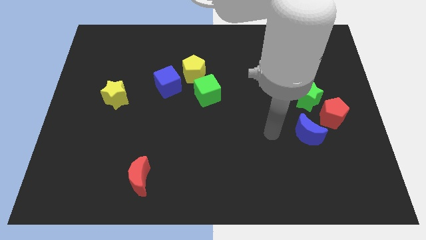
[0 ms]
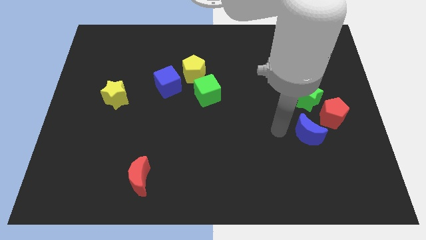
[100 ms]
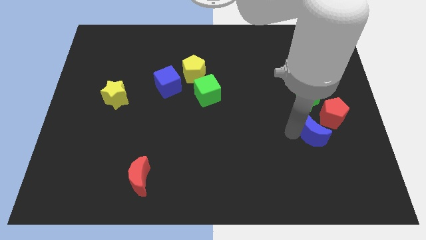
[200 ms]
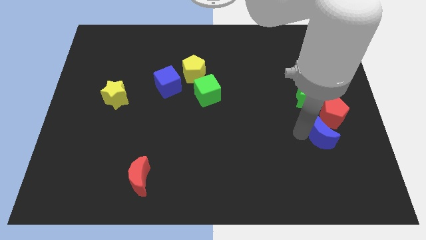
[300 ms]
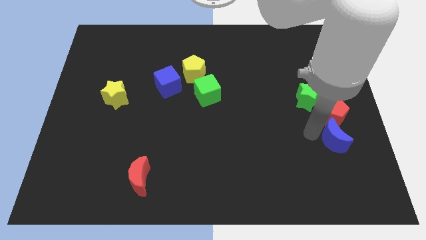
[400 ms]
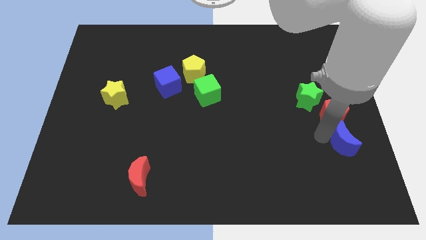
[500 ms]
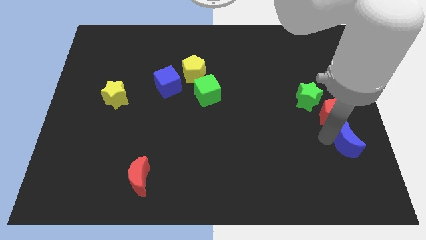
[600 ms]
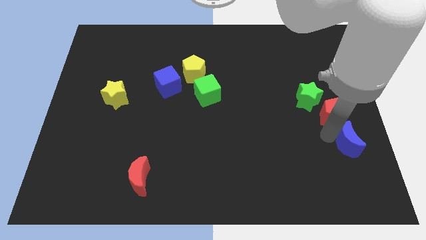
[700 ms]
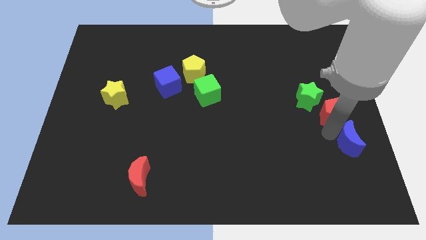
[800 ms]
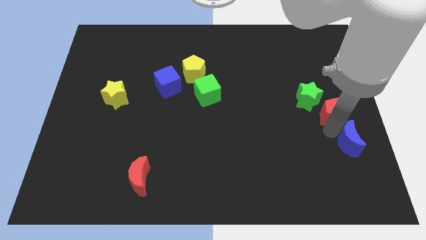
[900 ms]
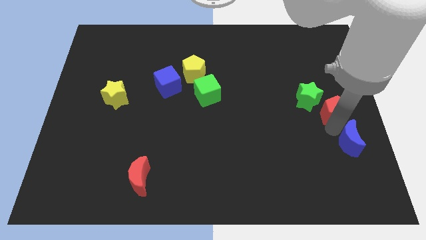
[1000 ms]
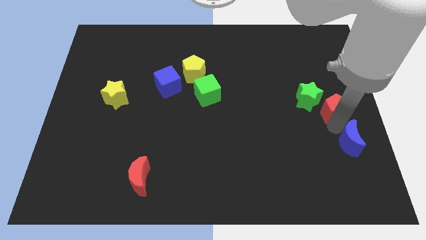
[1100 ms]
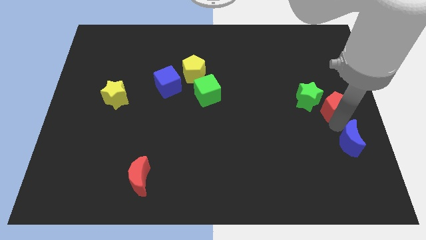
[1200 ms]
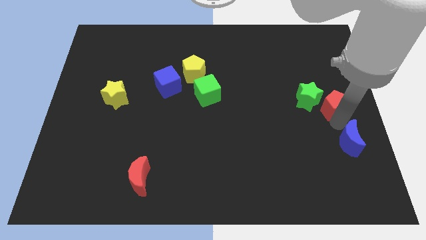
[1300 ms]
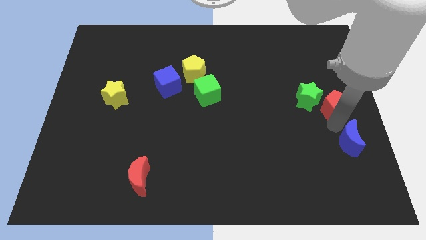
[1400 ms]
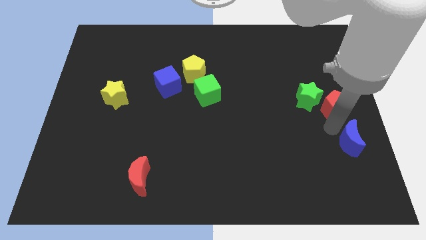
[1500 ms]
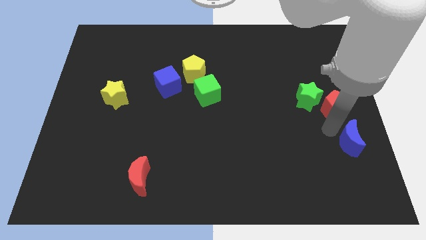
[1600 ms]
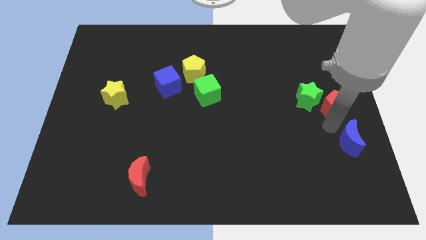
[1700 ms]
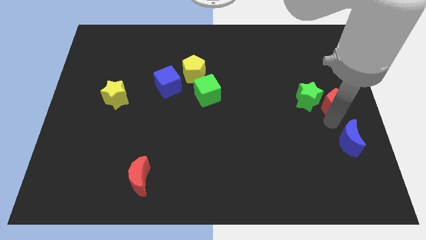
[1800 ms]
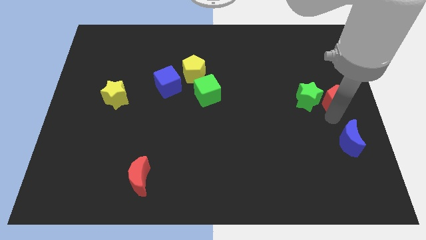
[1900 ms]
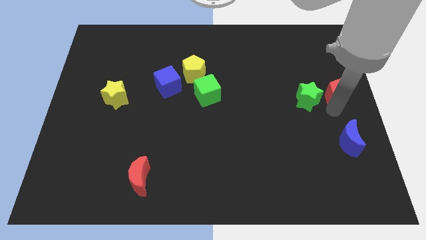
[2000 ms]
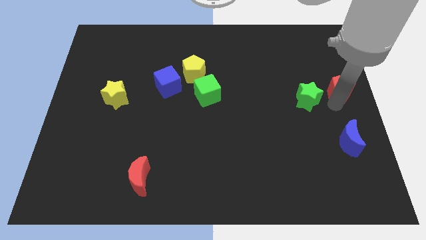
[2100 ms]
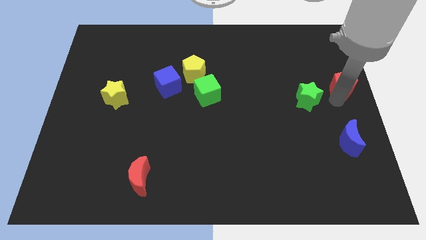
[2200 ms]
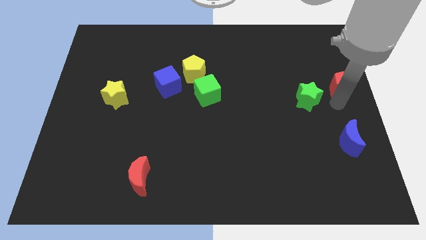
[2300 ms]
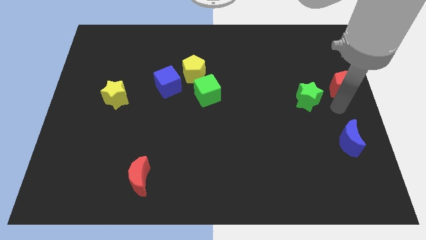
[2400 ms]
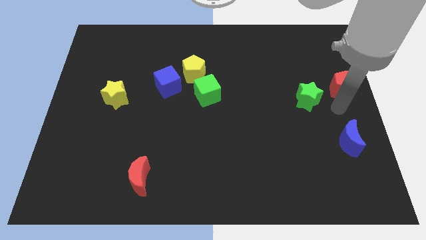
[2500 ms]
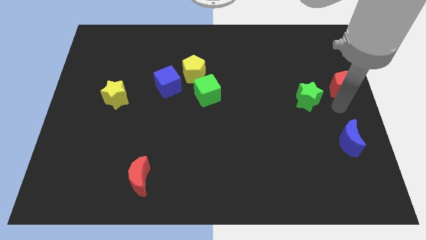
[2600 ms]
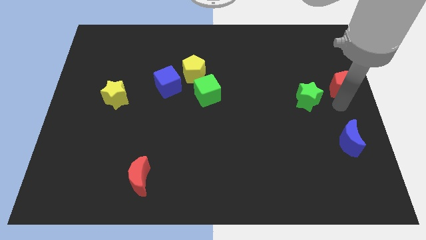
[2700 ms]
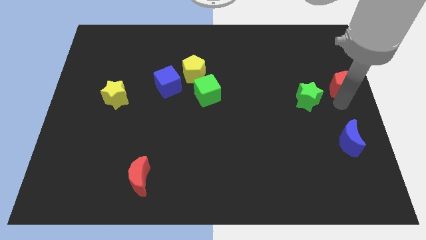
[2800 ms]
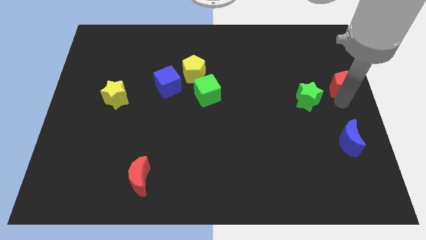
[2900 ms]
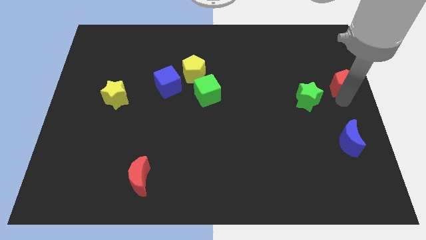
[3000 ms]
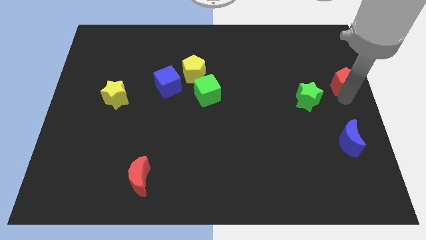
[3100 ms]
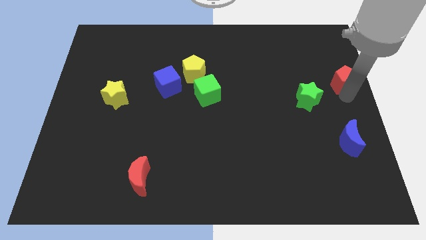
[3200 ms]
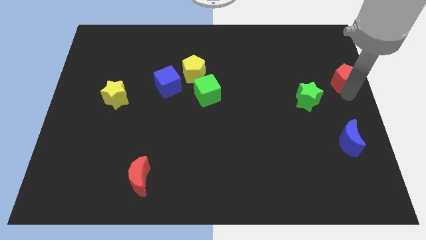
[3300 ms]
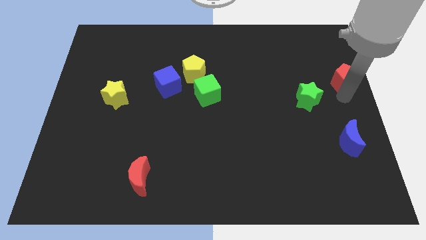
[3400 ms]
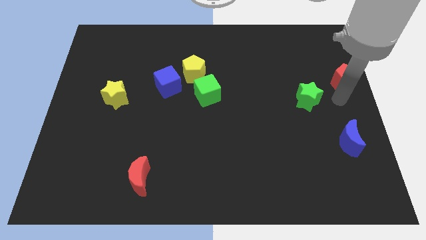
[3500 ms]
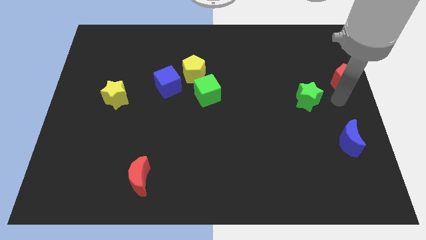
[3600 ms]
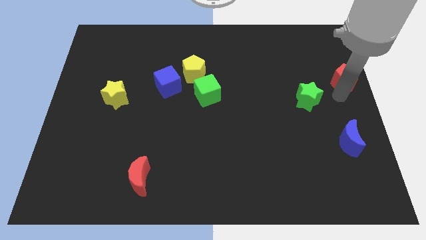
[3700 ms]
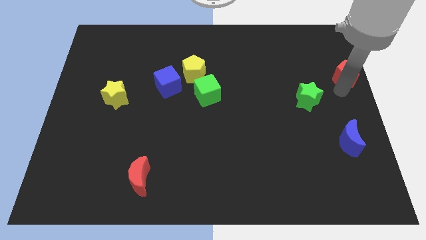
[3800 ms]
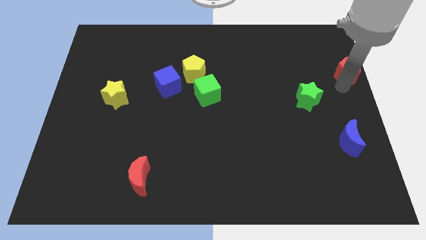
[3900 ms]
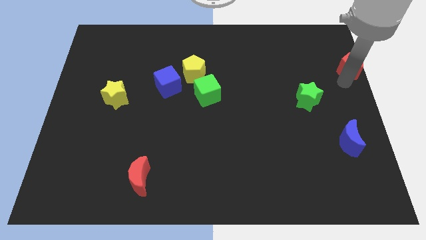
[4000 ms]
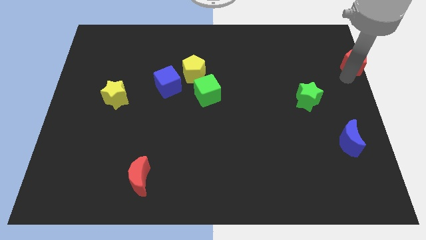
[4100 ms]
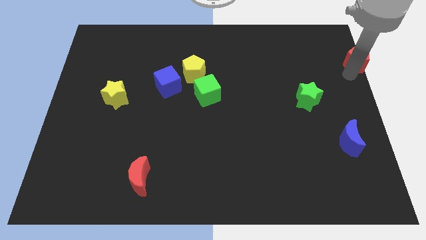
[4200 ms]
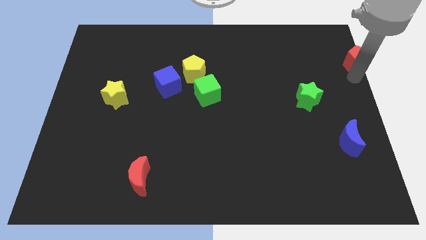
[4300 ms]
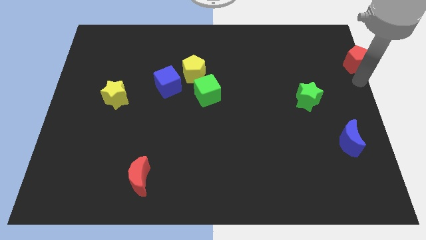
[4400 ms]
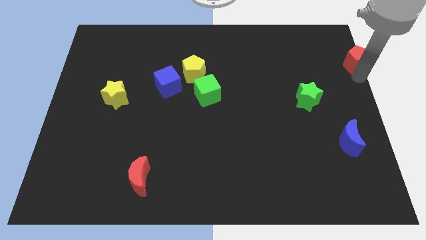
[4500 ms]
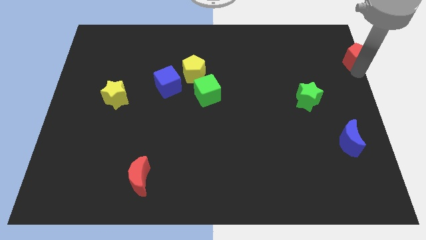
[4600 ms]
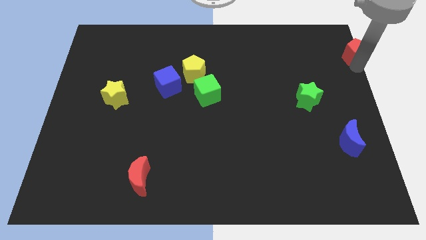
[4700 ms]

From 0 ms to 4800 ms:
push the red pentagon to the top right of the board

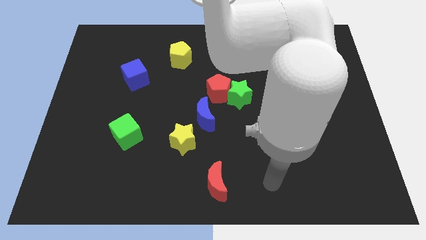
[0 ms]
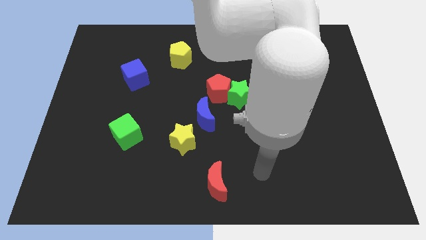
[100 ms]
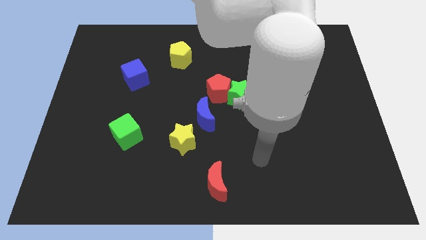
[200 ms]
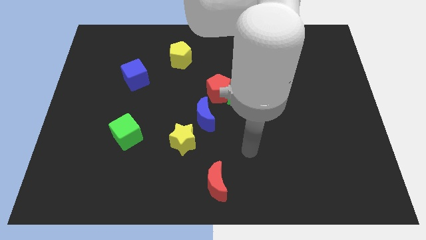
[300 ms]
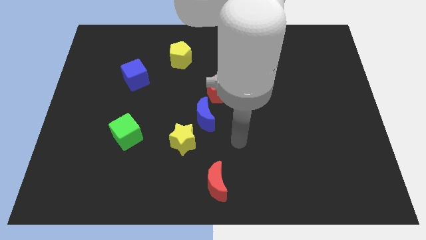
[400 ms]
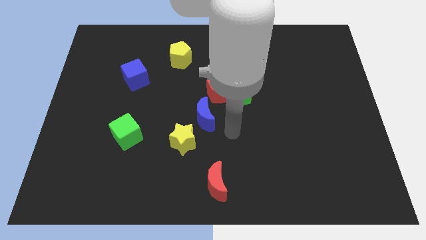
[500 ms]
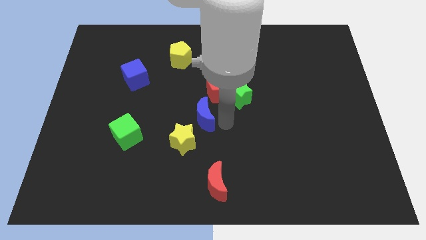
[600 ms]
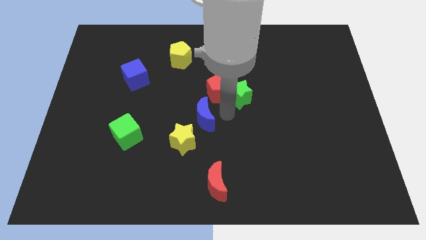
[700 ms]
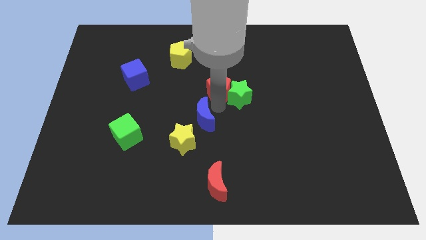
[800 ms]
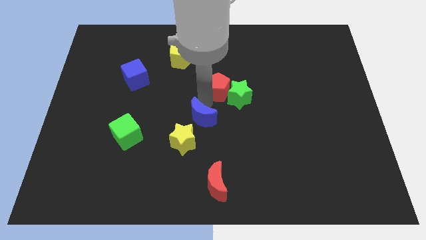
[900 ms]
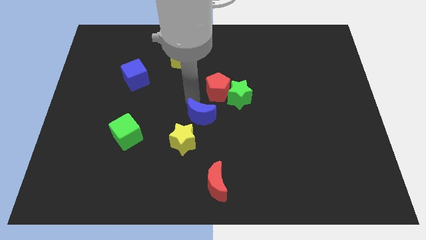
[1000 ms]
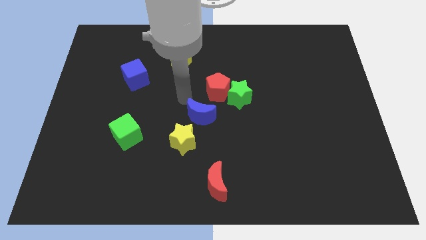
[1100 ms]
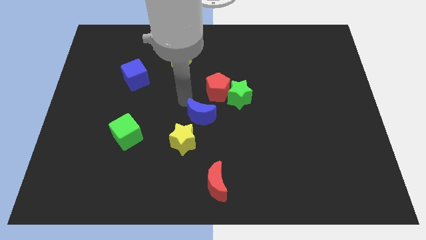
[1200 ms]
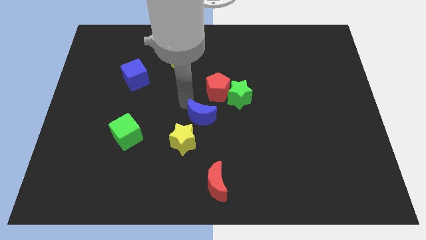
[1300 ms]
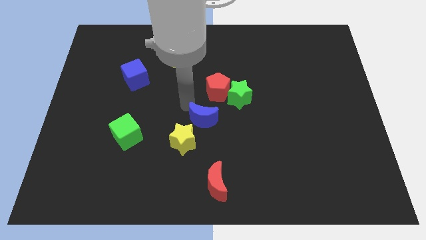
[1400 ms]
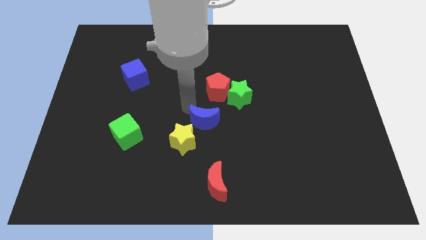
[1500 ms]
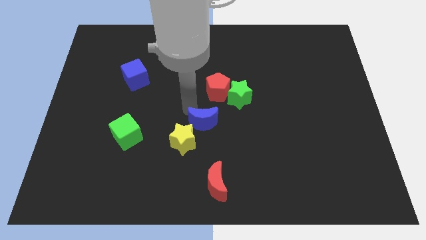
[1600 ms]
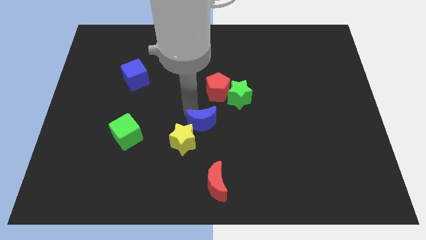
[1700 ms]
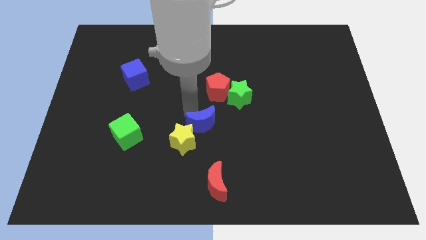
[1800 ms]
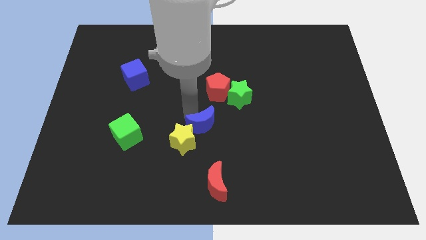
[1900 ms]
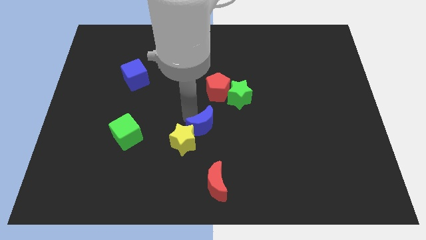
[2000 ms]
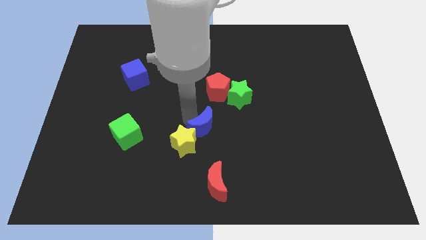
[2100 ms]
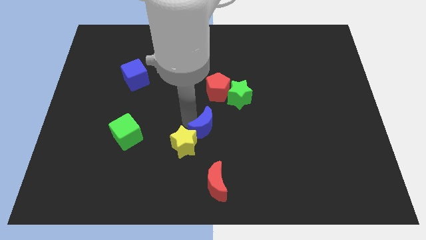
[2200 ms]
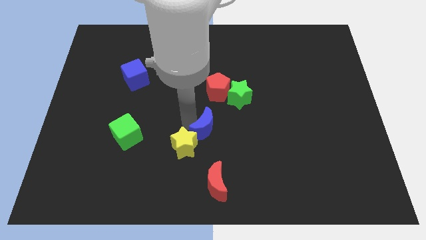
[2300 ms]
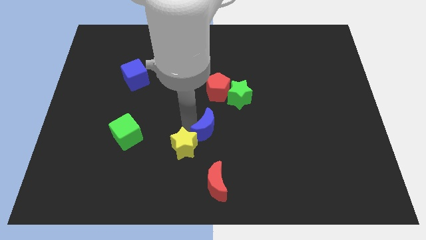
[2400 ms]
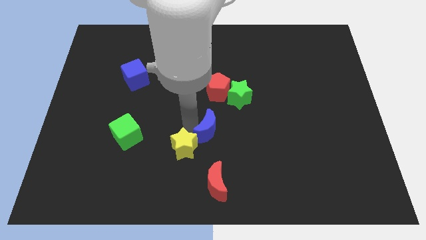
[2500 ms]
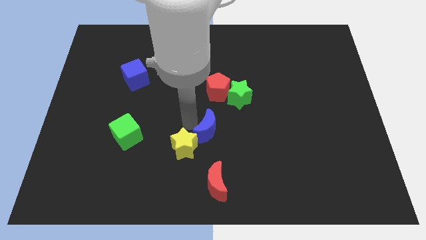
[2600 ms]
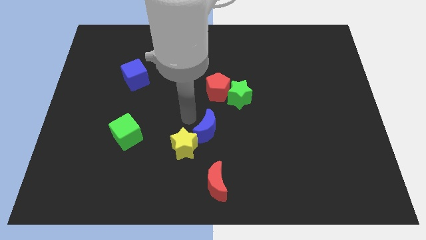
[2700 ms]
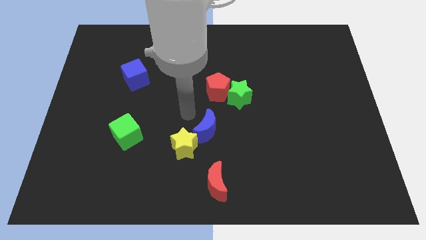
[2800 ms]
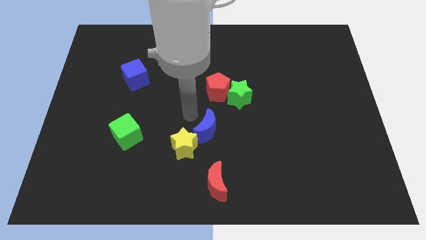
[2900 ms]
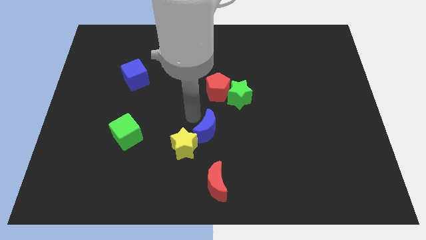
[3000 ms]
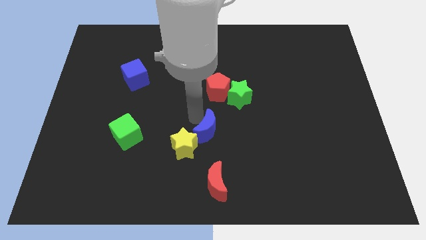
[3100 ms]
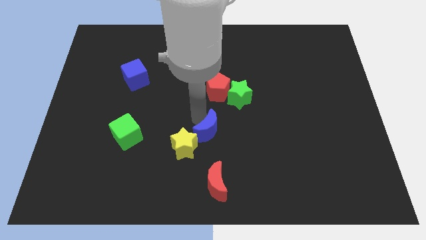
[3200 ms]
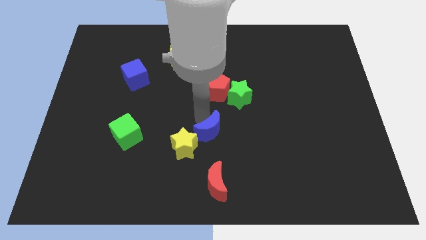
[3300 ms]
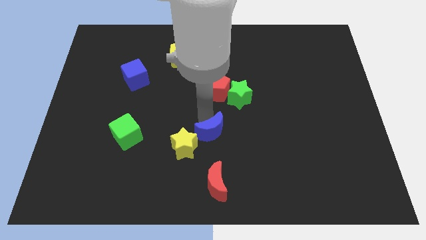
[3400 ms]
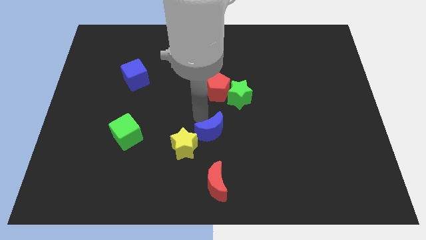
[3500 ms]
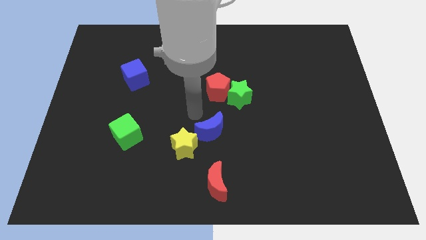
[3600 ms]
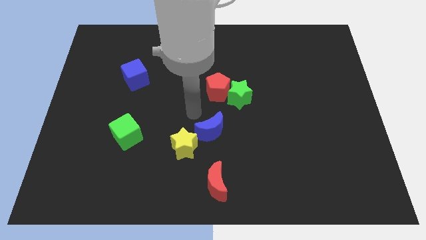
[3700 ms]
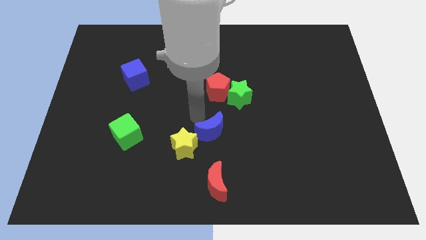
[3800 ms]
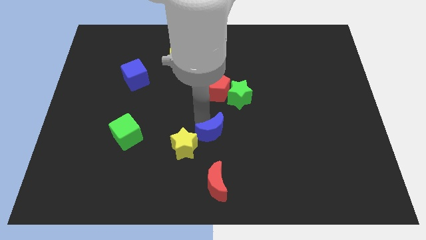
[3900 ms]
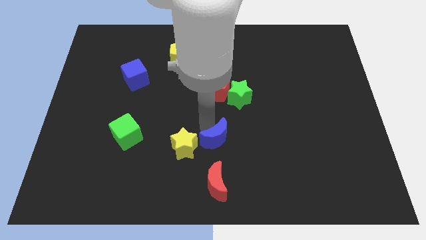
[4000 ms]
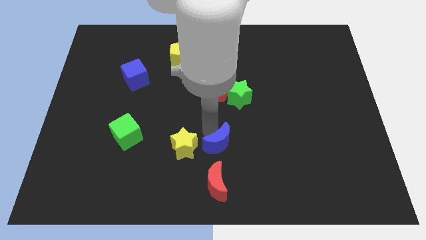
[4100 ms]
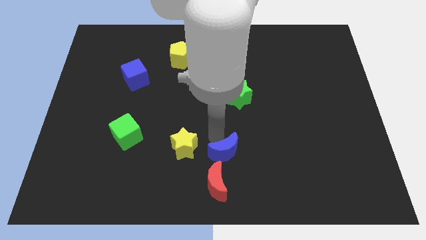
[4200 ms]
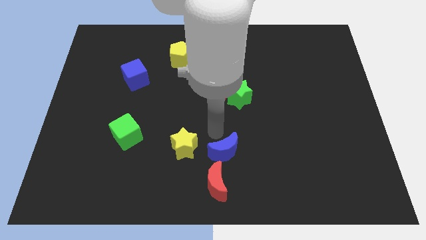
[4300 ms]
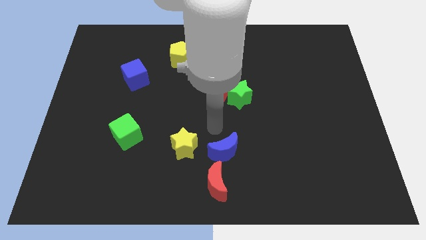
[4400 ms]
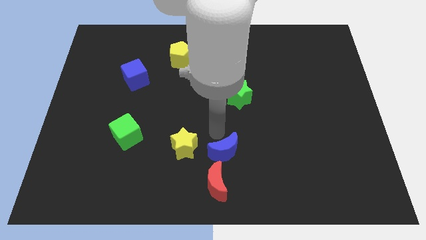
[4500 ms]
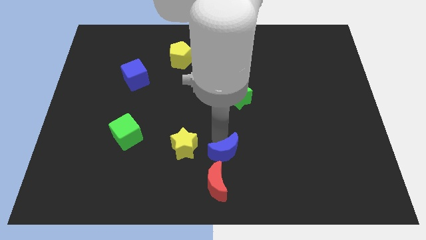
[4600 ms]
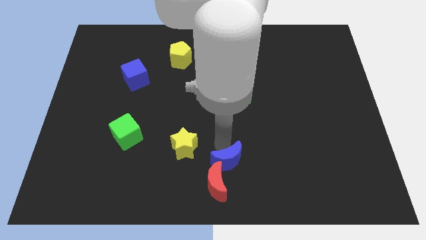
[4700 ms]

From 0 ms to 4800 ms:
slide the blue moon to the bottom side
